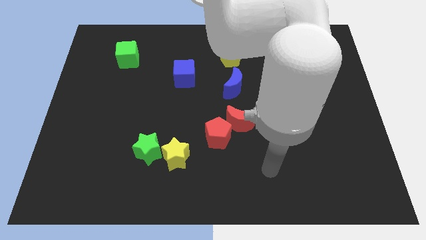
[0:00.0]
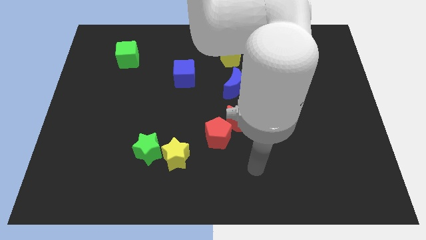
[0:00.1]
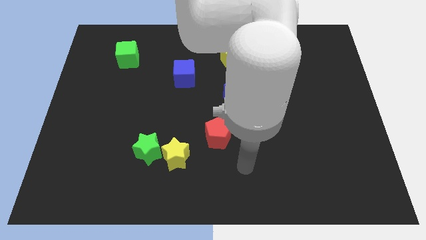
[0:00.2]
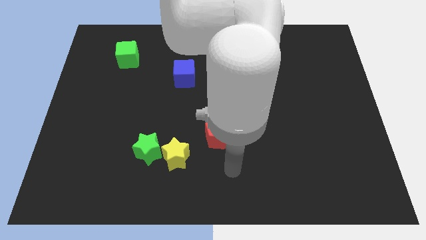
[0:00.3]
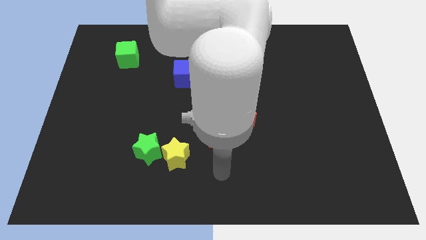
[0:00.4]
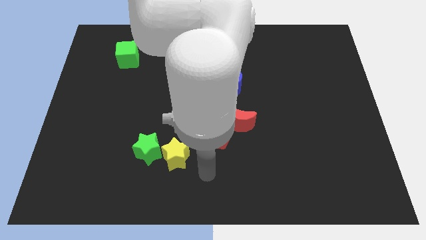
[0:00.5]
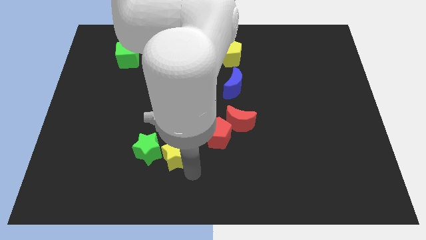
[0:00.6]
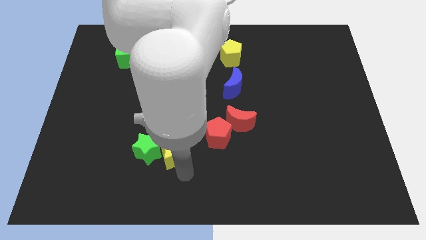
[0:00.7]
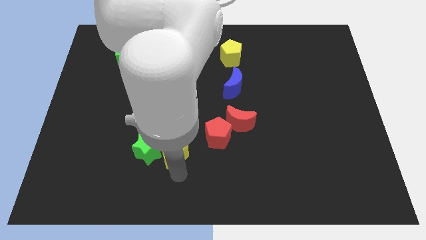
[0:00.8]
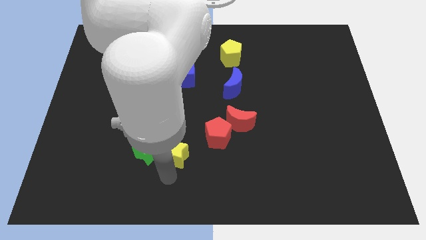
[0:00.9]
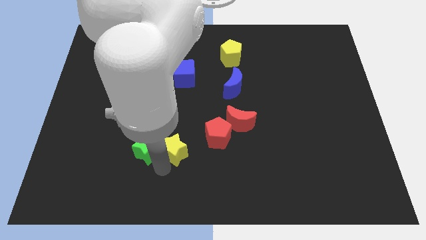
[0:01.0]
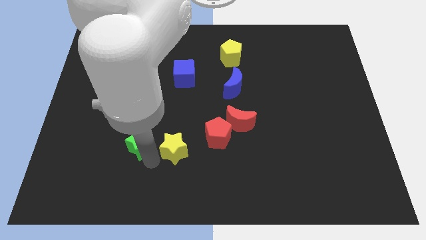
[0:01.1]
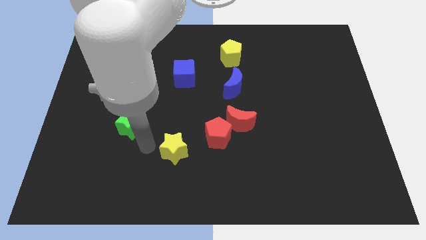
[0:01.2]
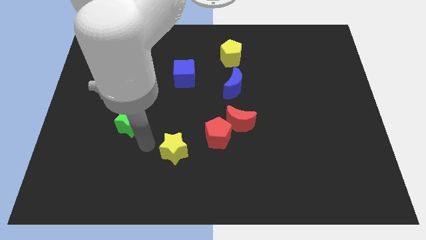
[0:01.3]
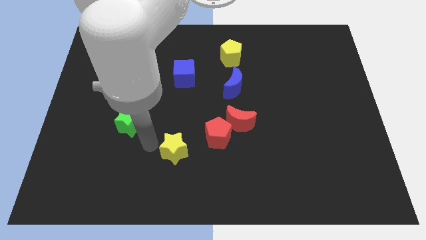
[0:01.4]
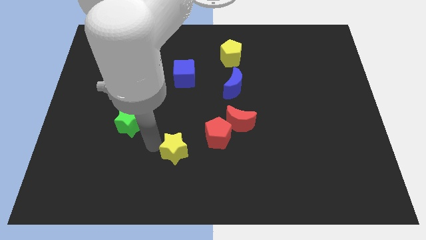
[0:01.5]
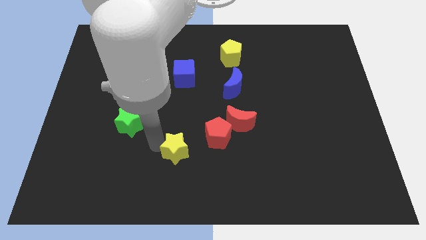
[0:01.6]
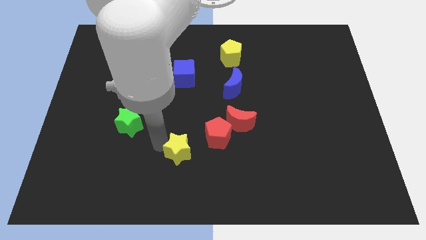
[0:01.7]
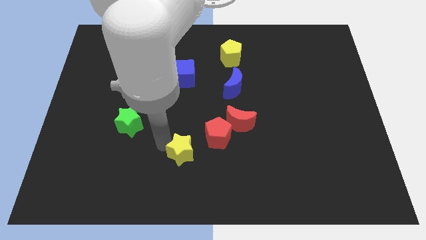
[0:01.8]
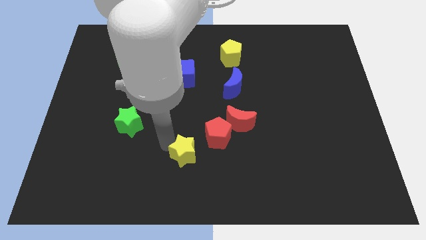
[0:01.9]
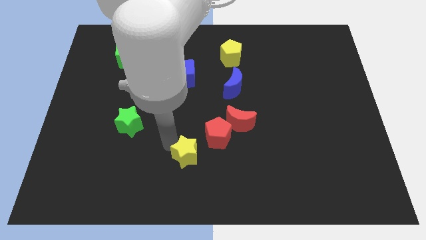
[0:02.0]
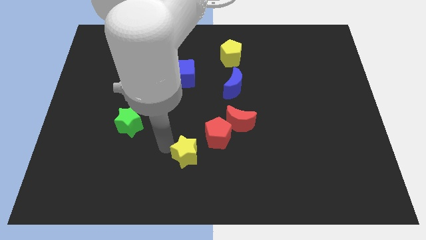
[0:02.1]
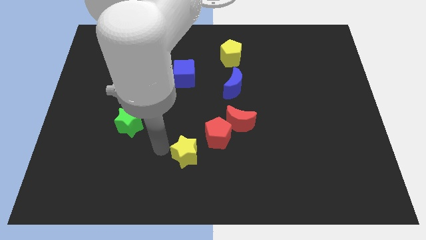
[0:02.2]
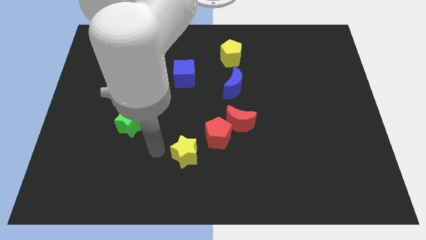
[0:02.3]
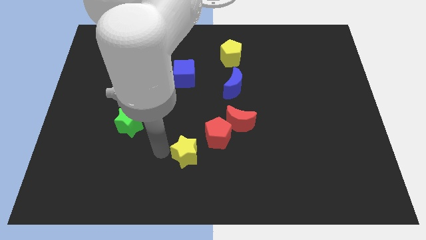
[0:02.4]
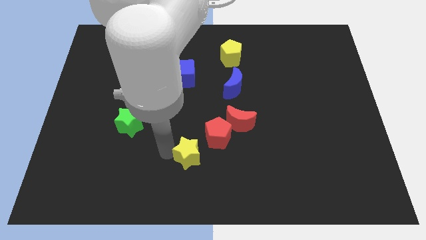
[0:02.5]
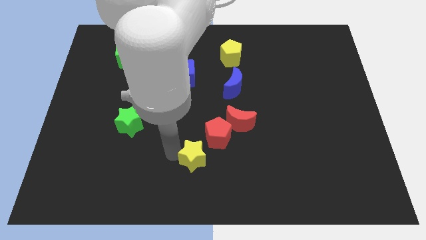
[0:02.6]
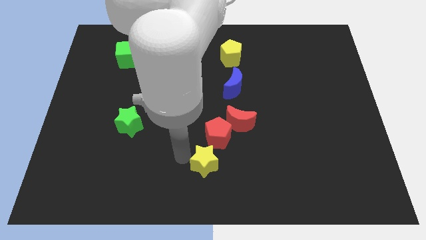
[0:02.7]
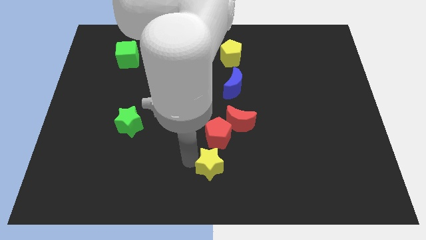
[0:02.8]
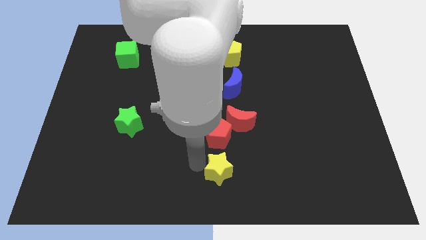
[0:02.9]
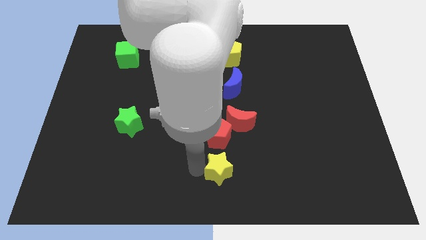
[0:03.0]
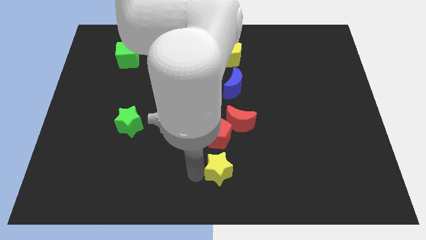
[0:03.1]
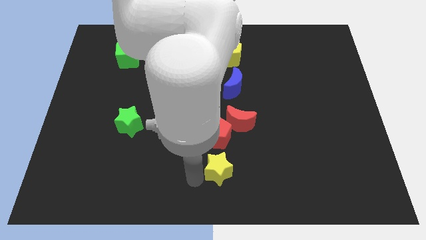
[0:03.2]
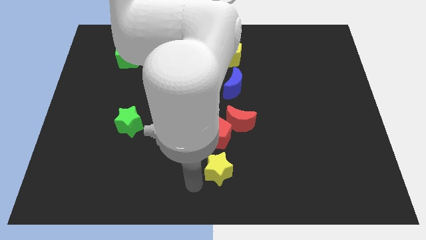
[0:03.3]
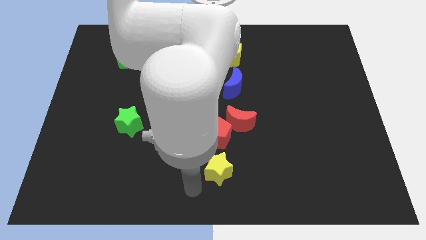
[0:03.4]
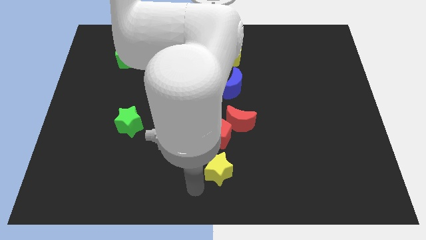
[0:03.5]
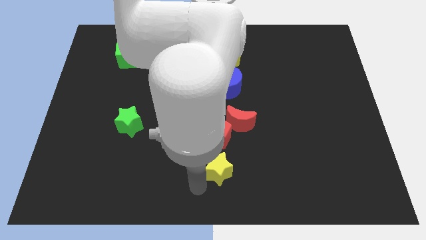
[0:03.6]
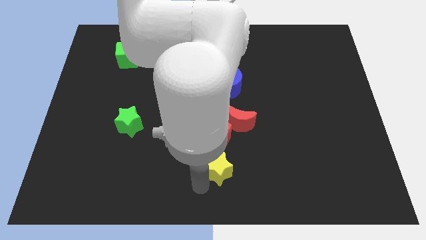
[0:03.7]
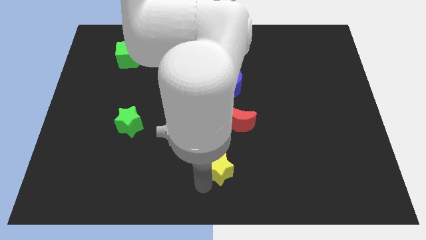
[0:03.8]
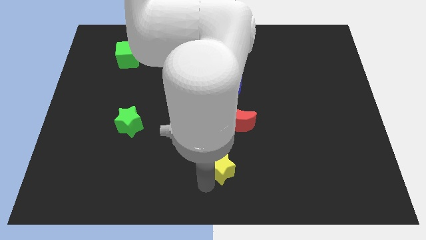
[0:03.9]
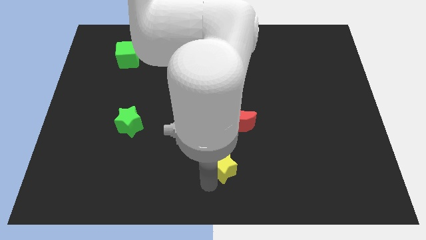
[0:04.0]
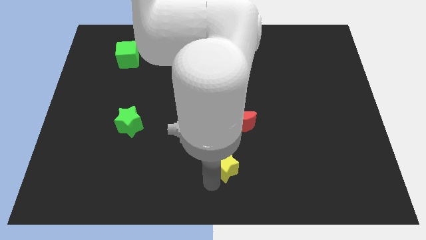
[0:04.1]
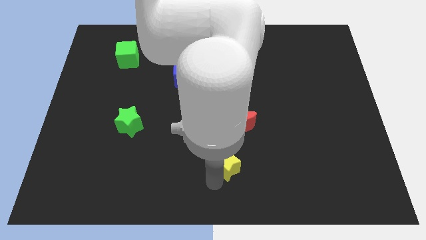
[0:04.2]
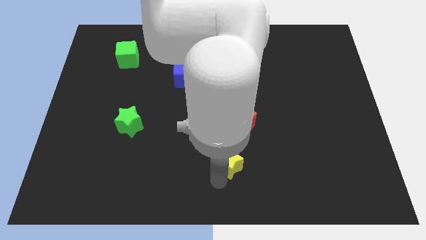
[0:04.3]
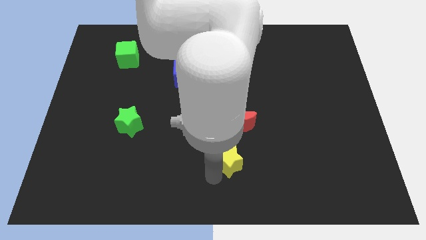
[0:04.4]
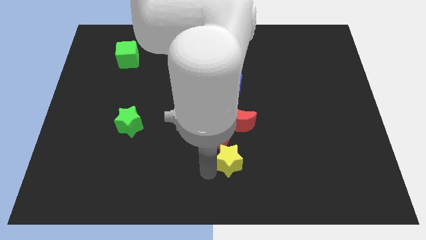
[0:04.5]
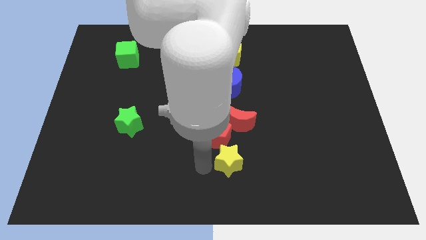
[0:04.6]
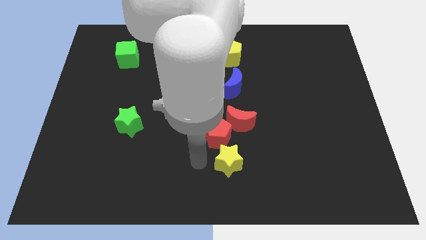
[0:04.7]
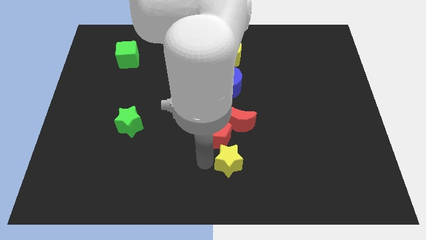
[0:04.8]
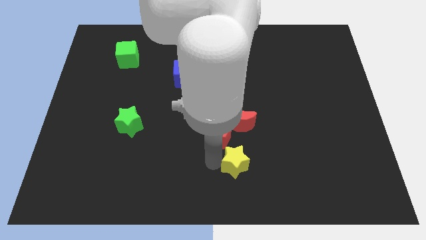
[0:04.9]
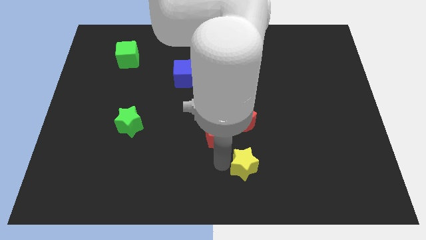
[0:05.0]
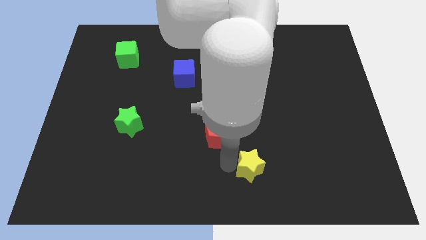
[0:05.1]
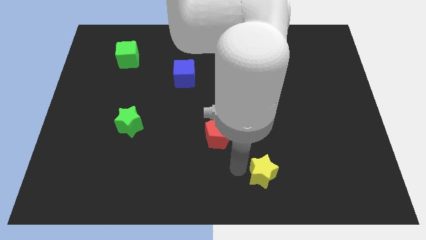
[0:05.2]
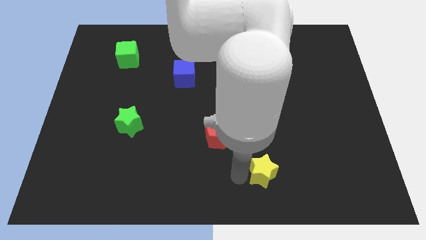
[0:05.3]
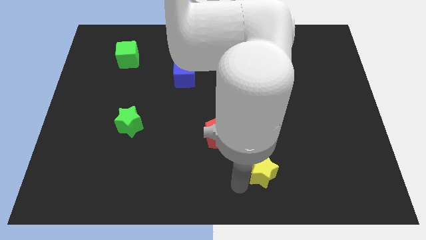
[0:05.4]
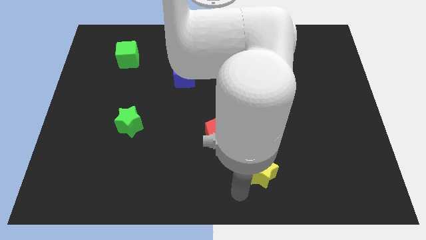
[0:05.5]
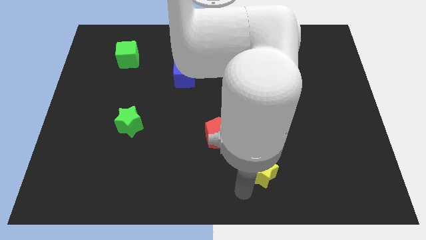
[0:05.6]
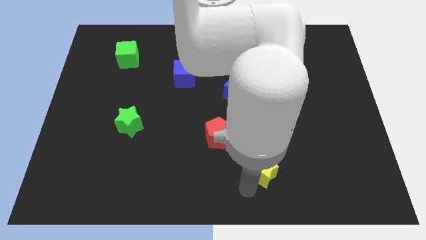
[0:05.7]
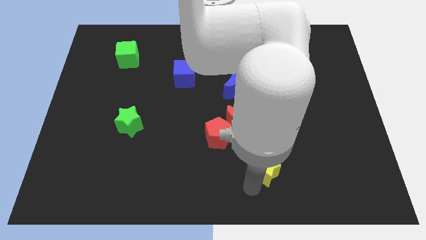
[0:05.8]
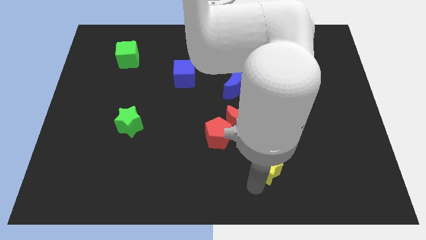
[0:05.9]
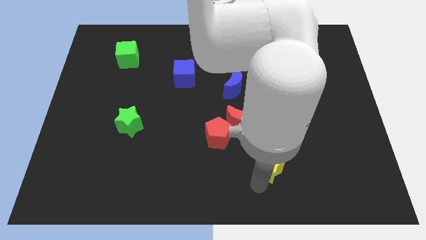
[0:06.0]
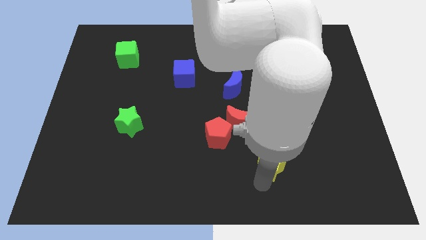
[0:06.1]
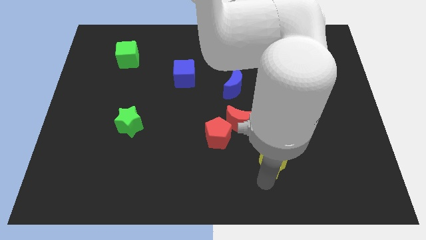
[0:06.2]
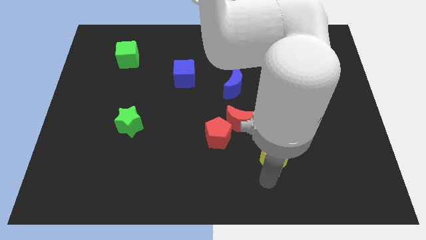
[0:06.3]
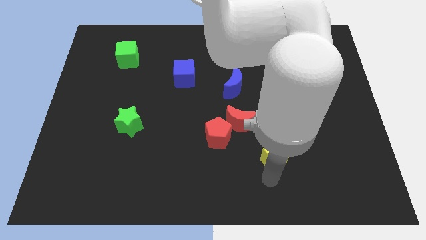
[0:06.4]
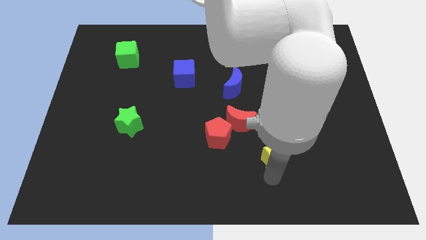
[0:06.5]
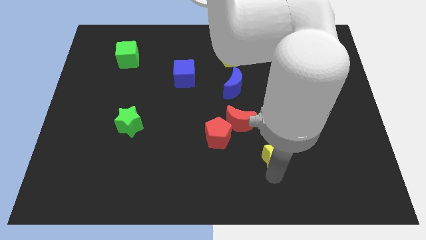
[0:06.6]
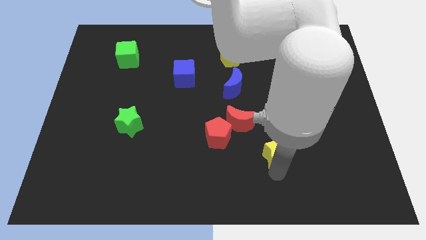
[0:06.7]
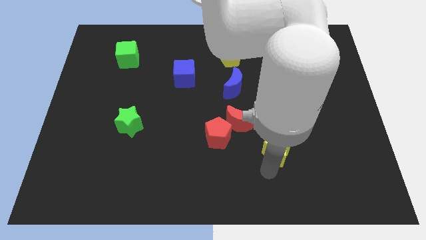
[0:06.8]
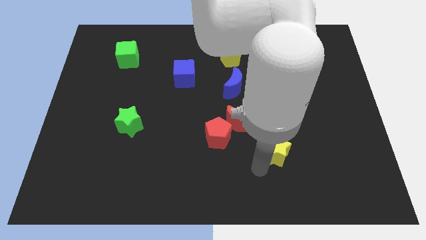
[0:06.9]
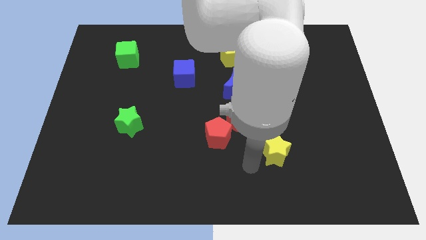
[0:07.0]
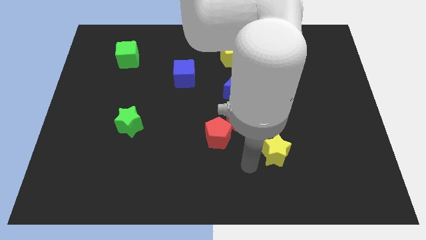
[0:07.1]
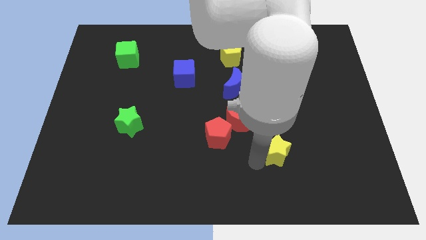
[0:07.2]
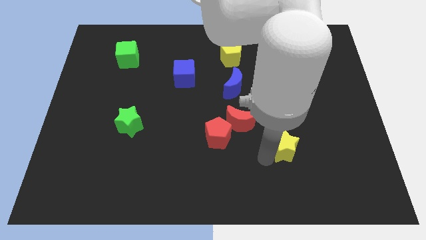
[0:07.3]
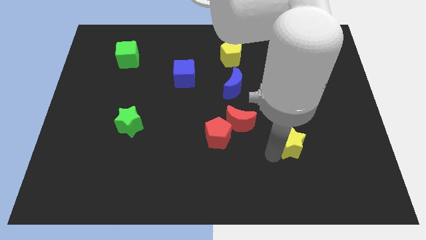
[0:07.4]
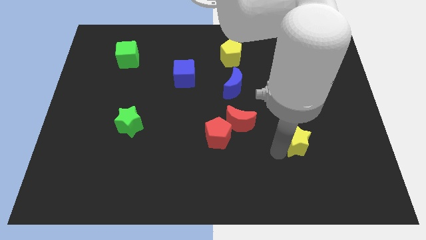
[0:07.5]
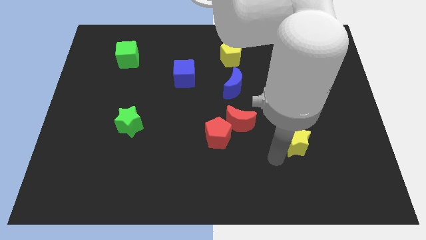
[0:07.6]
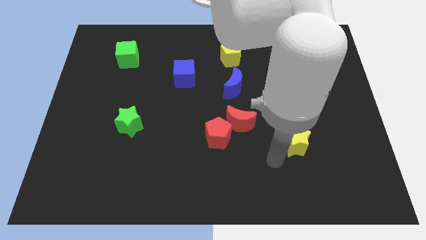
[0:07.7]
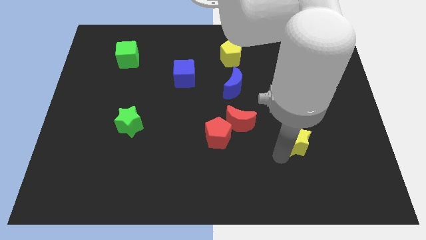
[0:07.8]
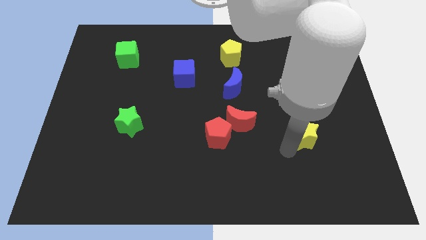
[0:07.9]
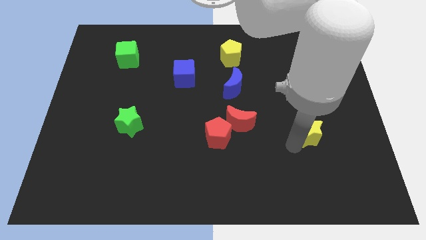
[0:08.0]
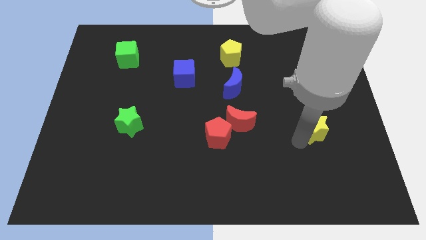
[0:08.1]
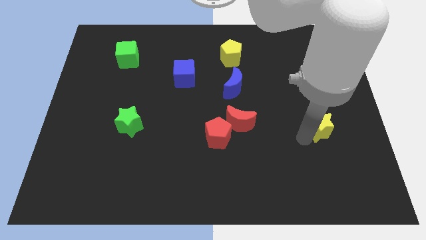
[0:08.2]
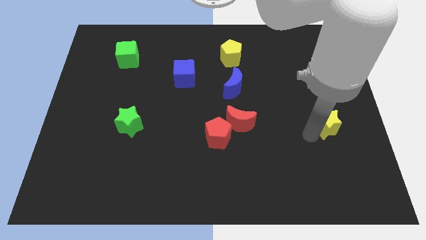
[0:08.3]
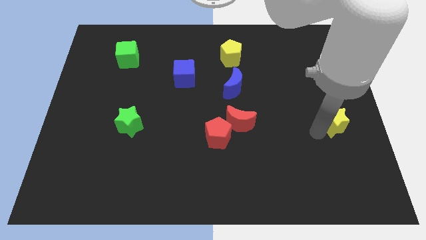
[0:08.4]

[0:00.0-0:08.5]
push the yellow star to the right side

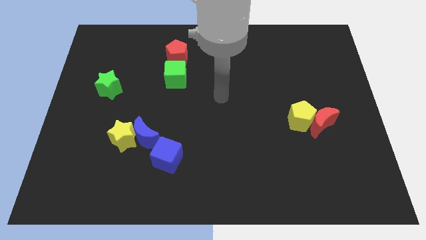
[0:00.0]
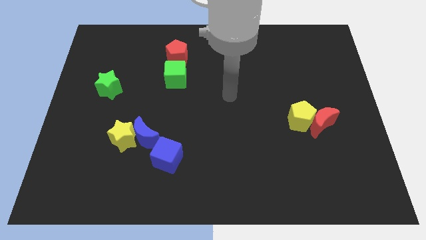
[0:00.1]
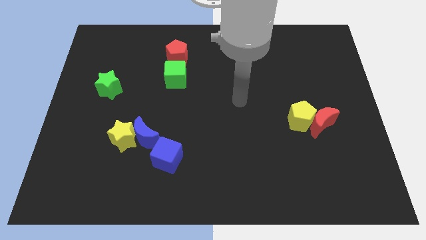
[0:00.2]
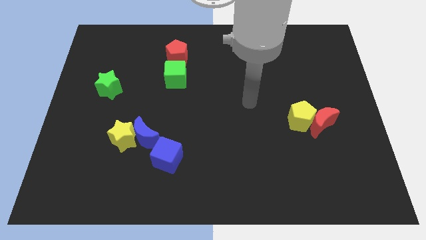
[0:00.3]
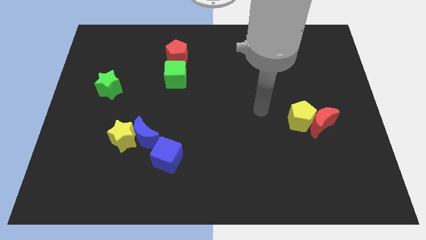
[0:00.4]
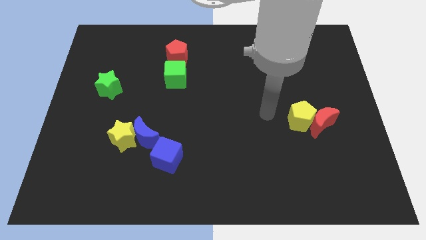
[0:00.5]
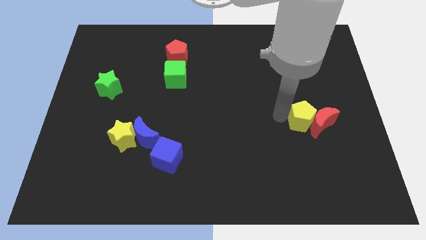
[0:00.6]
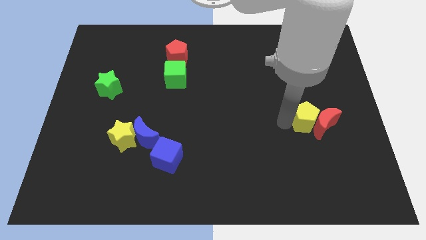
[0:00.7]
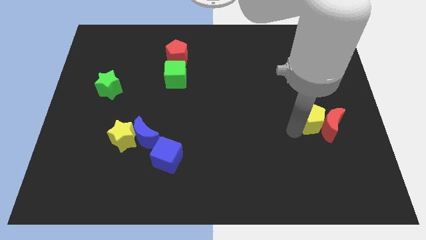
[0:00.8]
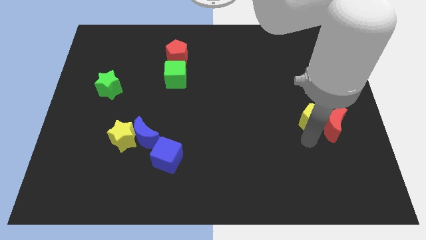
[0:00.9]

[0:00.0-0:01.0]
push the red moon to the right side
